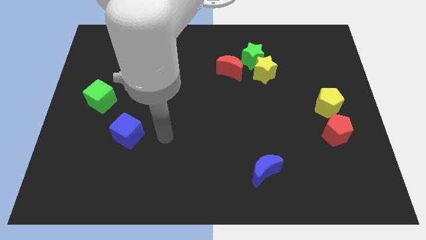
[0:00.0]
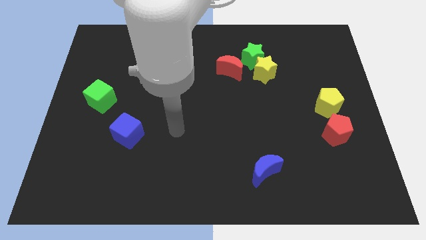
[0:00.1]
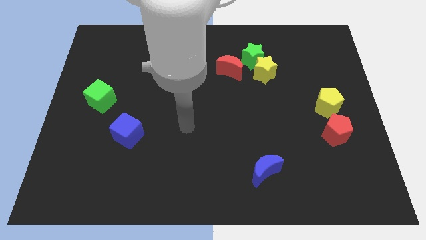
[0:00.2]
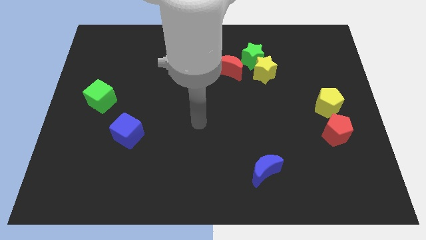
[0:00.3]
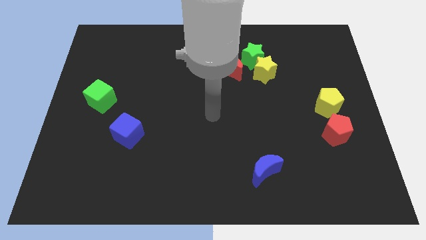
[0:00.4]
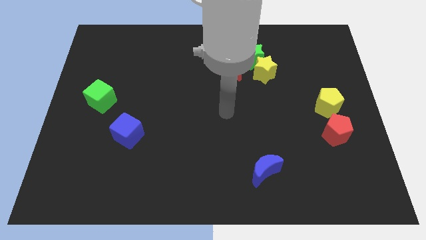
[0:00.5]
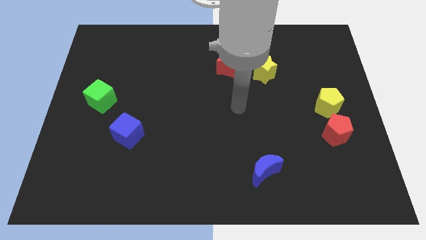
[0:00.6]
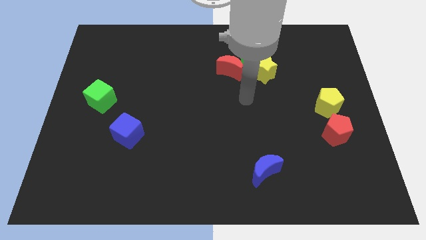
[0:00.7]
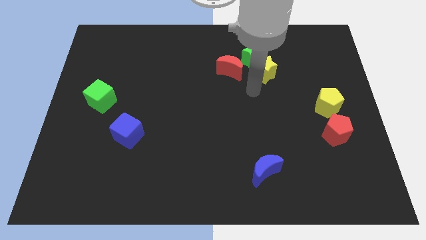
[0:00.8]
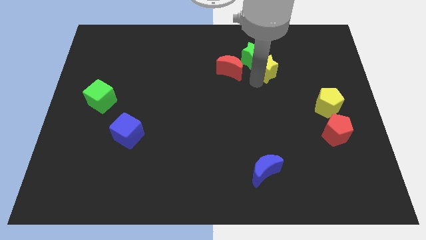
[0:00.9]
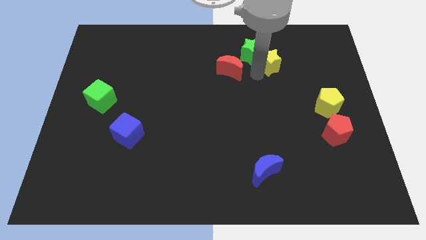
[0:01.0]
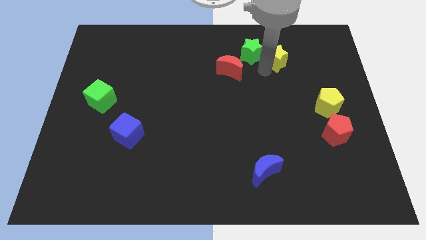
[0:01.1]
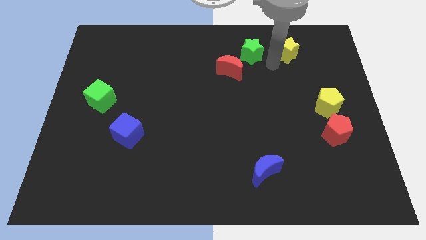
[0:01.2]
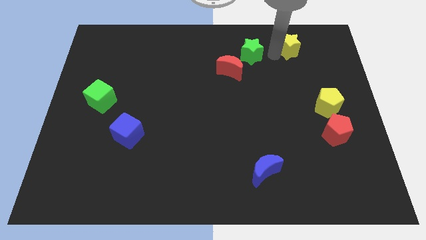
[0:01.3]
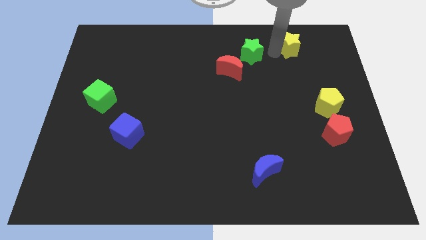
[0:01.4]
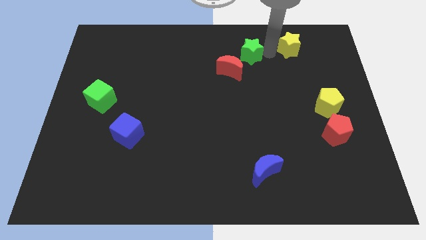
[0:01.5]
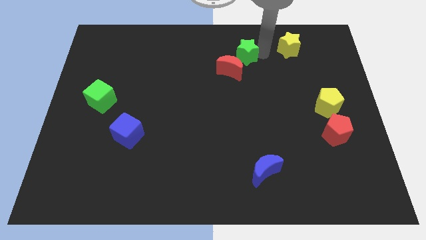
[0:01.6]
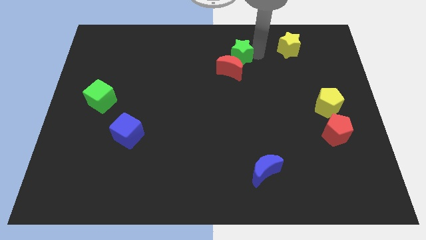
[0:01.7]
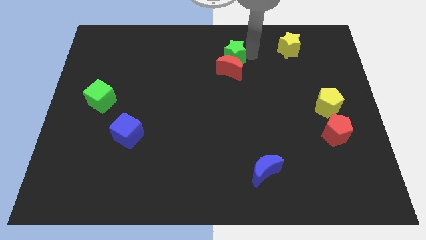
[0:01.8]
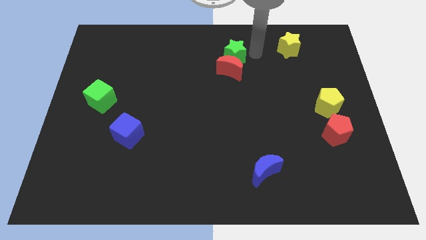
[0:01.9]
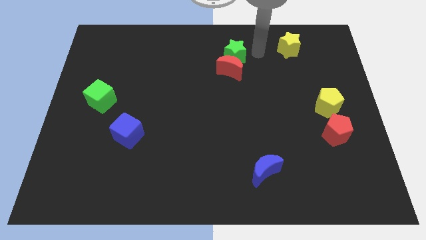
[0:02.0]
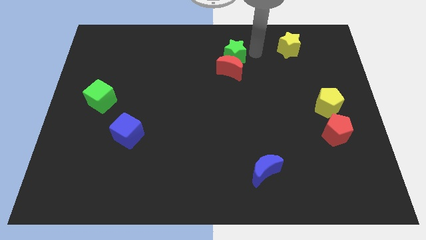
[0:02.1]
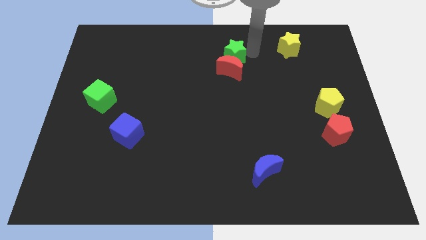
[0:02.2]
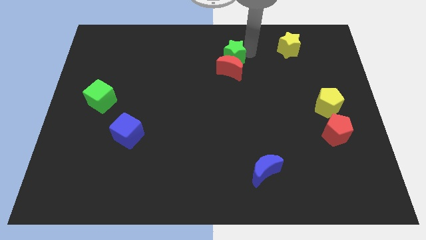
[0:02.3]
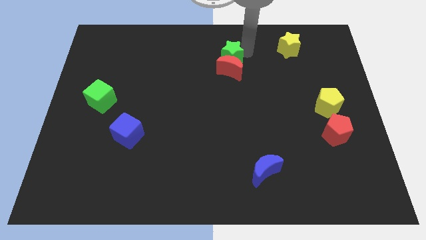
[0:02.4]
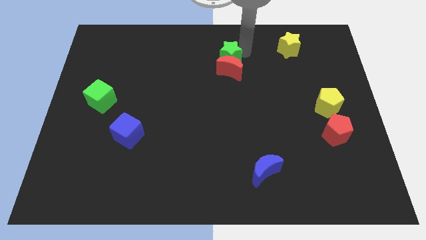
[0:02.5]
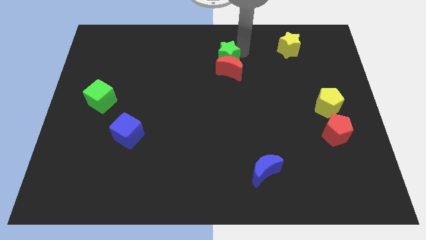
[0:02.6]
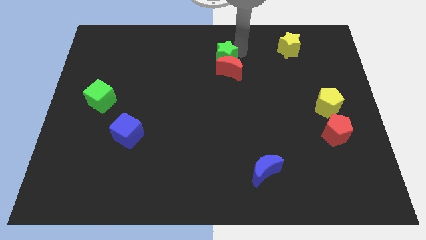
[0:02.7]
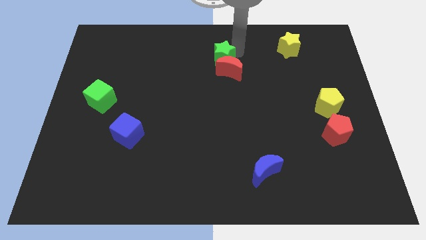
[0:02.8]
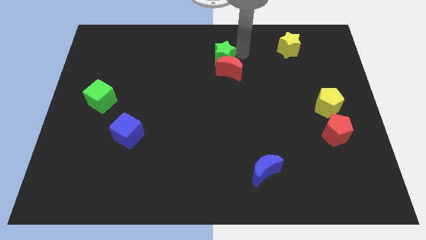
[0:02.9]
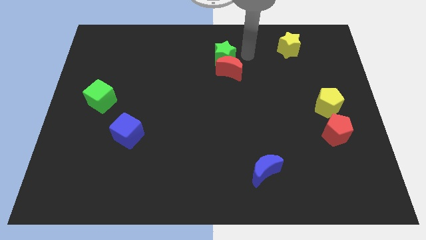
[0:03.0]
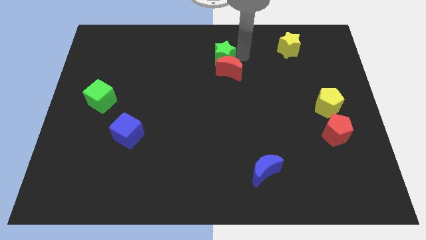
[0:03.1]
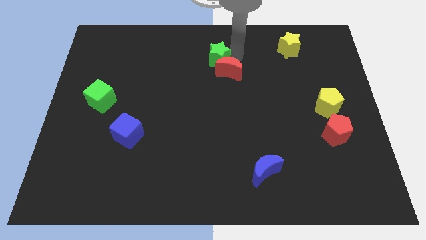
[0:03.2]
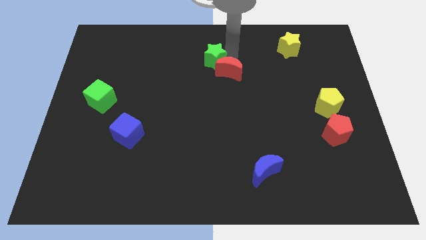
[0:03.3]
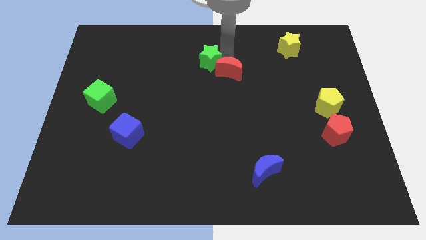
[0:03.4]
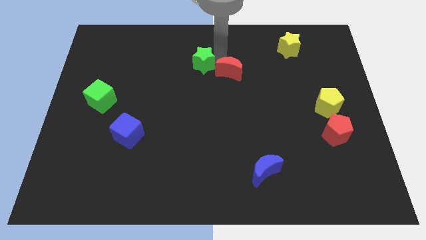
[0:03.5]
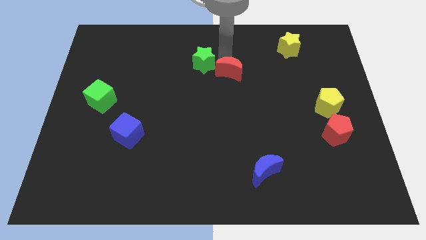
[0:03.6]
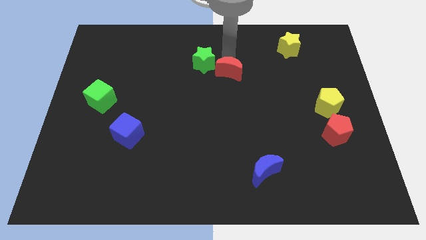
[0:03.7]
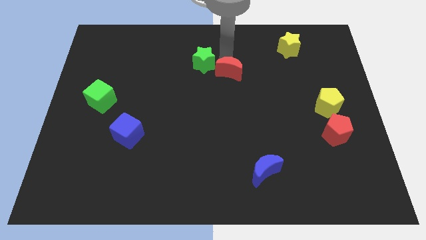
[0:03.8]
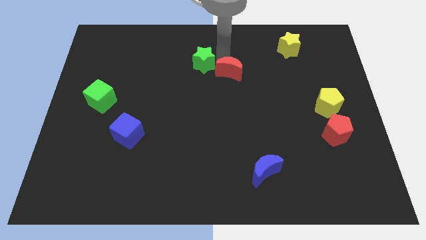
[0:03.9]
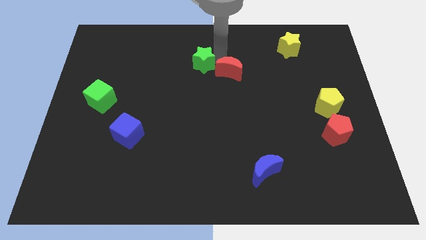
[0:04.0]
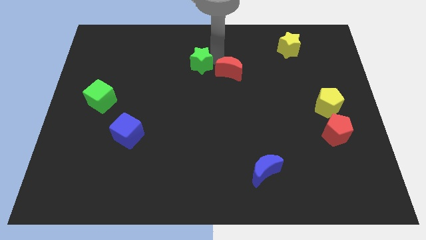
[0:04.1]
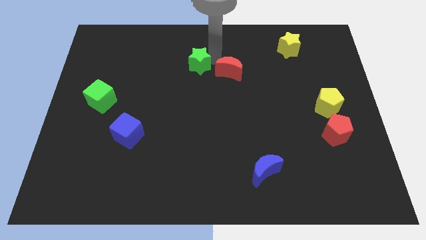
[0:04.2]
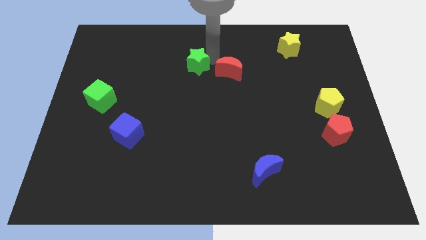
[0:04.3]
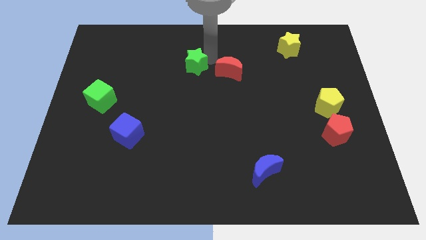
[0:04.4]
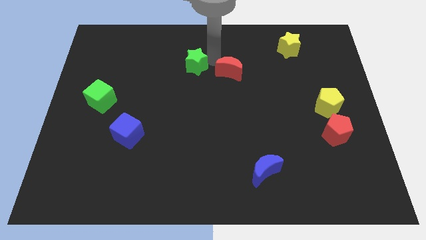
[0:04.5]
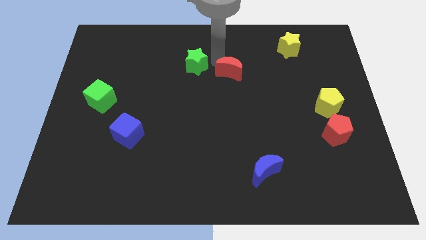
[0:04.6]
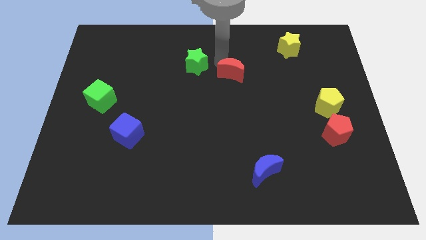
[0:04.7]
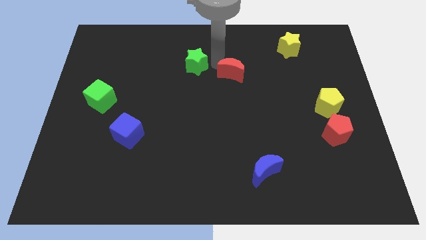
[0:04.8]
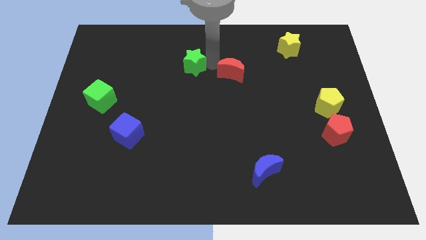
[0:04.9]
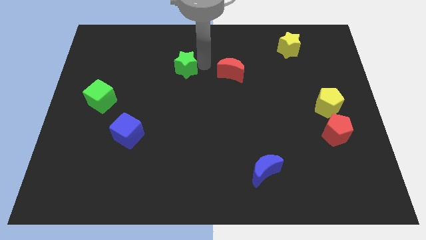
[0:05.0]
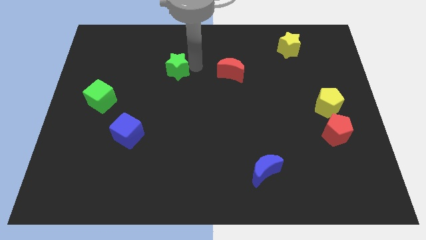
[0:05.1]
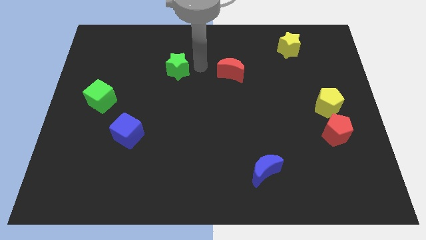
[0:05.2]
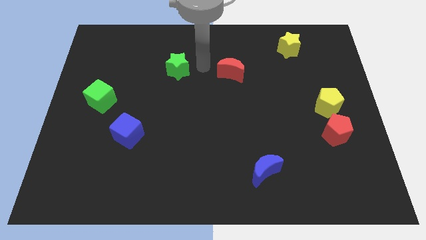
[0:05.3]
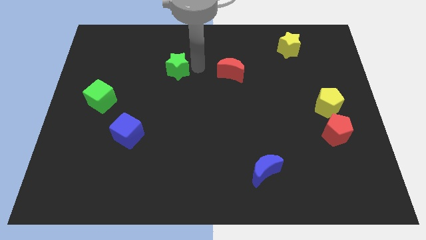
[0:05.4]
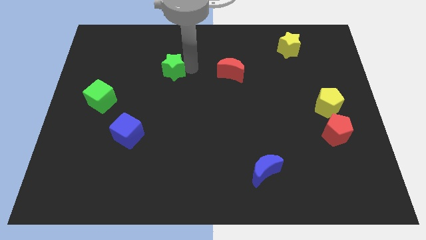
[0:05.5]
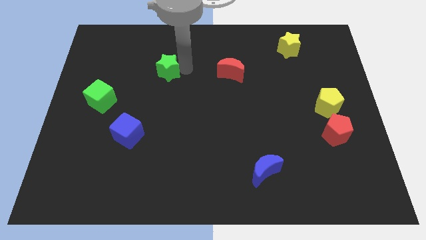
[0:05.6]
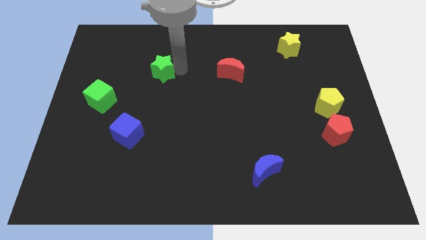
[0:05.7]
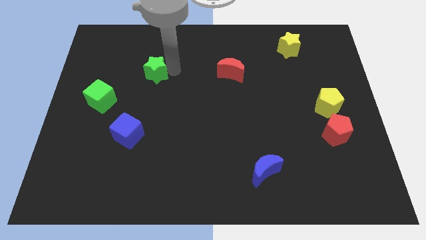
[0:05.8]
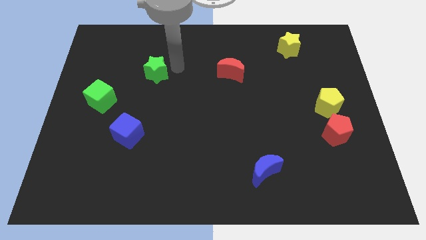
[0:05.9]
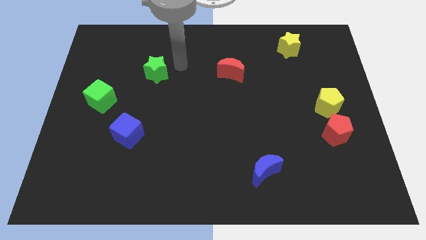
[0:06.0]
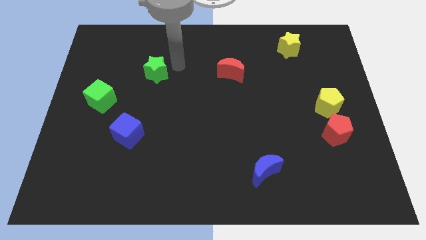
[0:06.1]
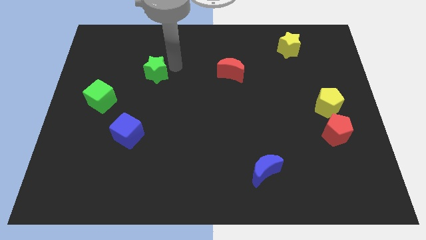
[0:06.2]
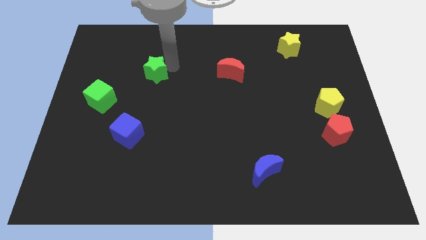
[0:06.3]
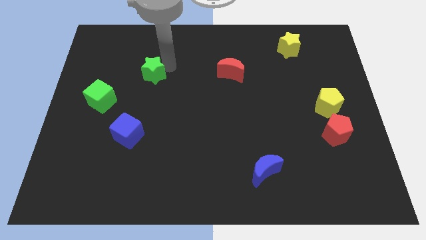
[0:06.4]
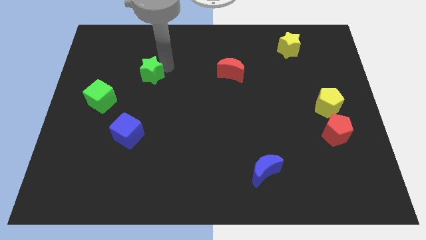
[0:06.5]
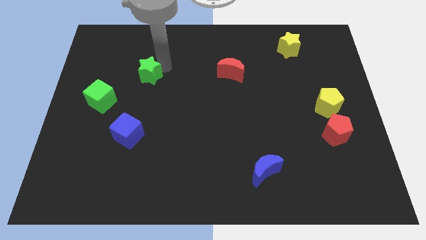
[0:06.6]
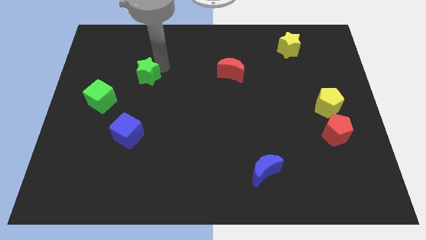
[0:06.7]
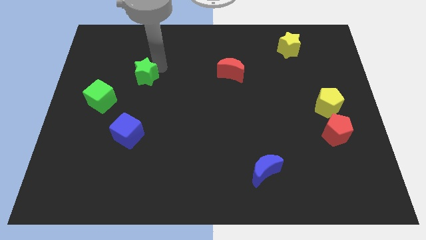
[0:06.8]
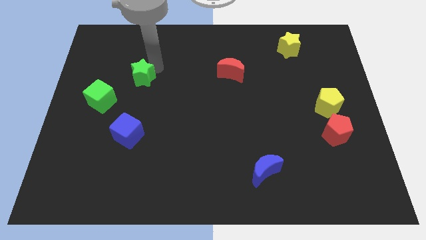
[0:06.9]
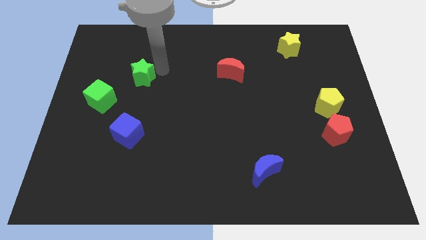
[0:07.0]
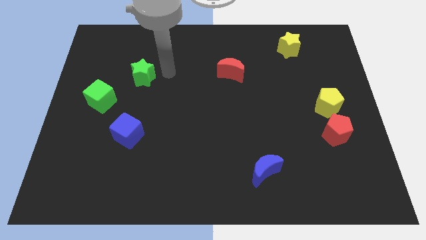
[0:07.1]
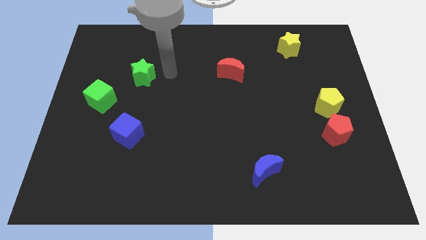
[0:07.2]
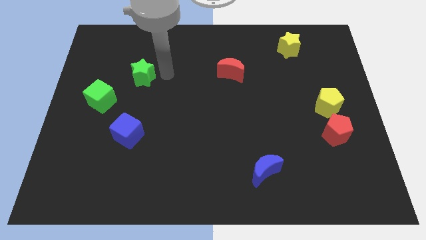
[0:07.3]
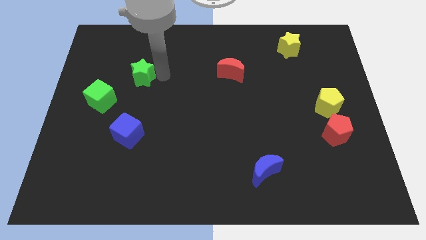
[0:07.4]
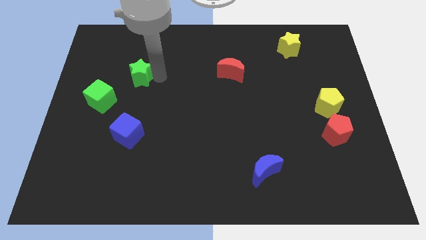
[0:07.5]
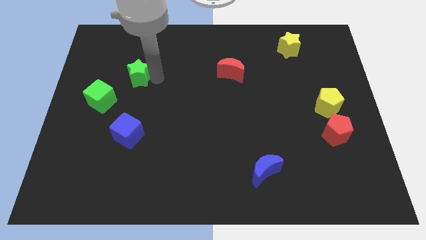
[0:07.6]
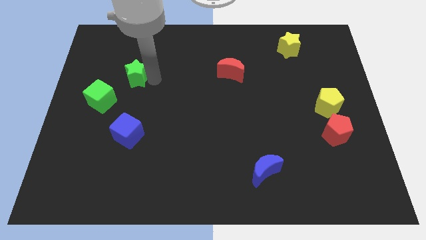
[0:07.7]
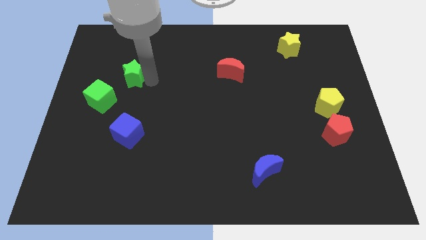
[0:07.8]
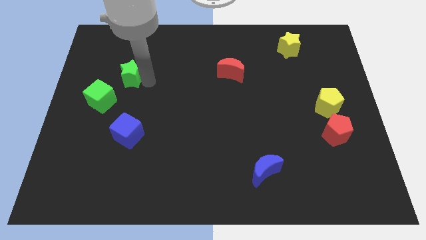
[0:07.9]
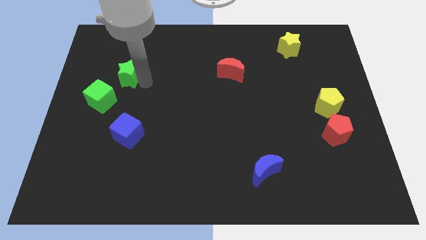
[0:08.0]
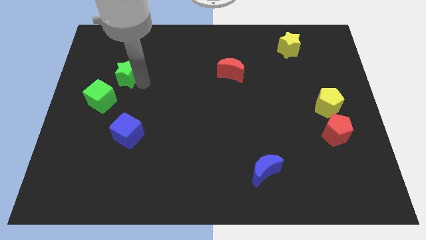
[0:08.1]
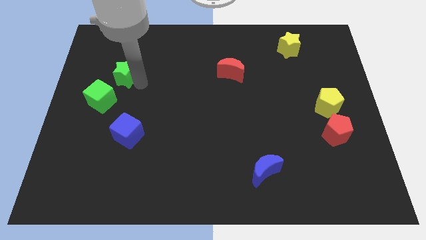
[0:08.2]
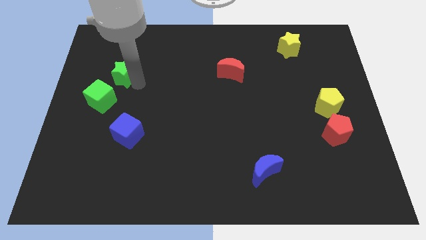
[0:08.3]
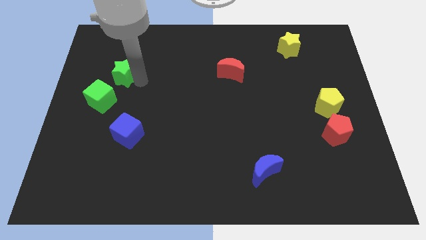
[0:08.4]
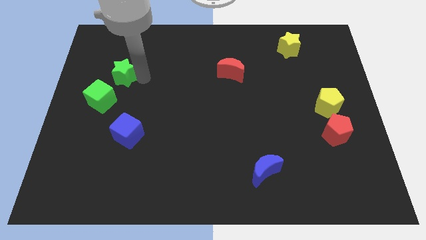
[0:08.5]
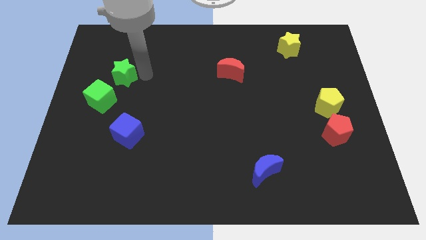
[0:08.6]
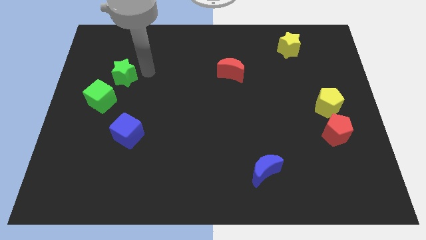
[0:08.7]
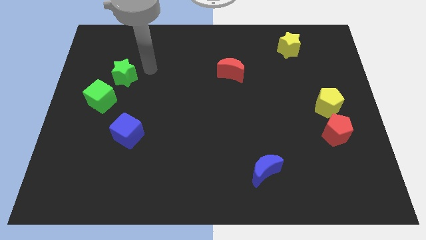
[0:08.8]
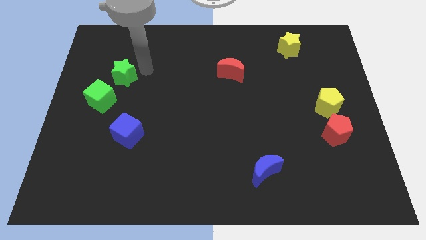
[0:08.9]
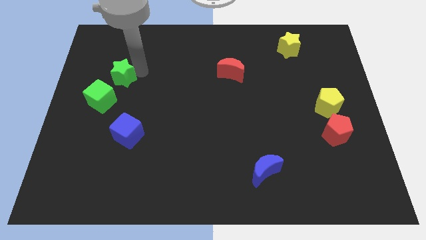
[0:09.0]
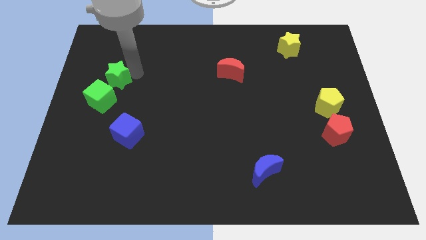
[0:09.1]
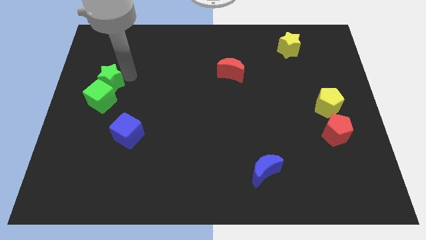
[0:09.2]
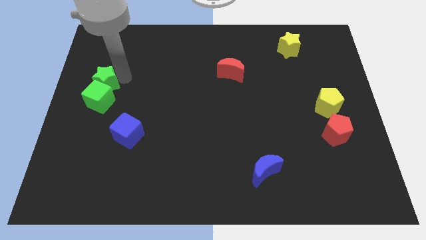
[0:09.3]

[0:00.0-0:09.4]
put the green star to the left side
